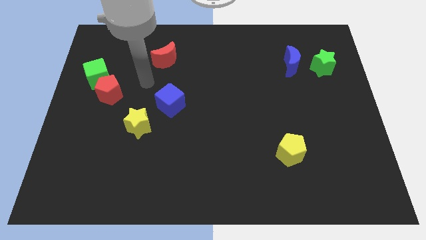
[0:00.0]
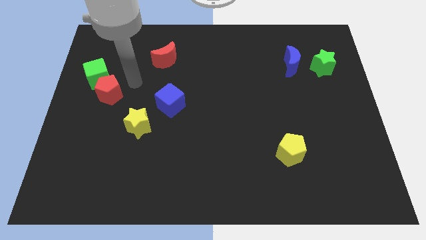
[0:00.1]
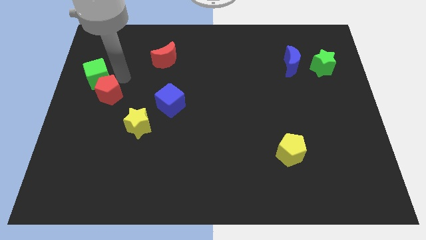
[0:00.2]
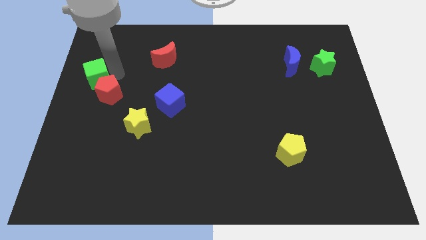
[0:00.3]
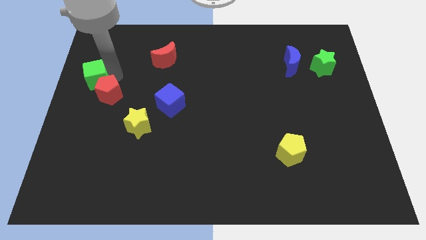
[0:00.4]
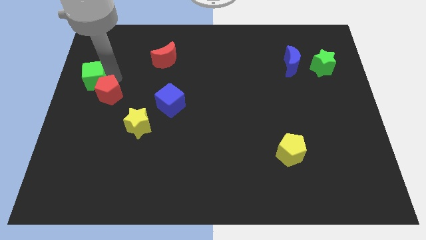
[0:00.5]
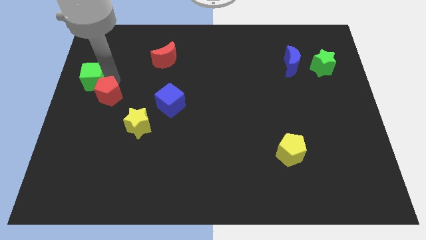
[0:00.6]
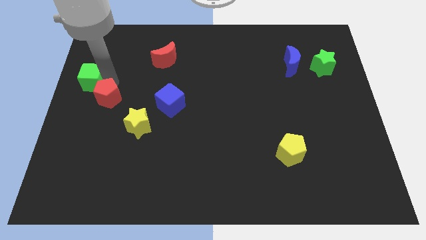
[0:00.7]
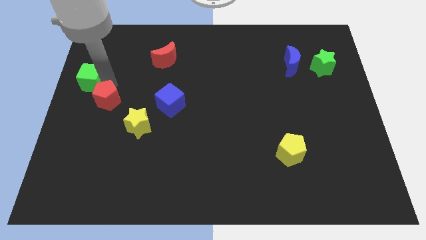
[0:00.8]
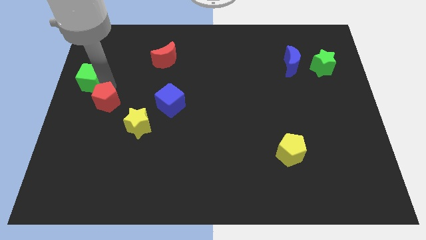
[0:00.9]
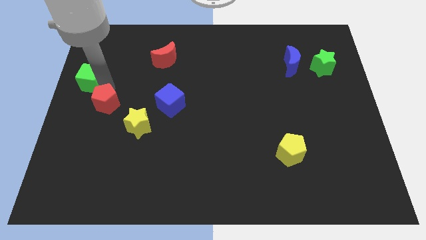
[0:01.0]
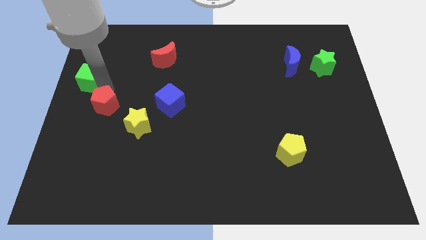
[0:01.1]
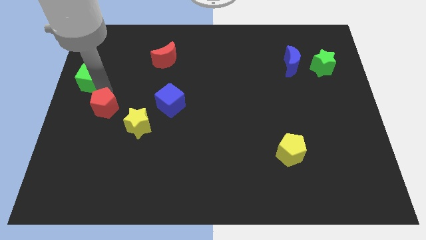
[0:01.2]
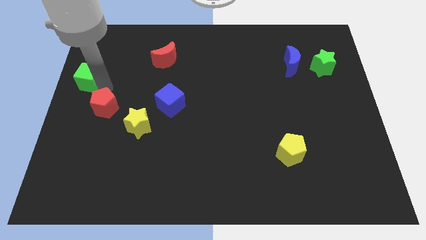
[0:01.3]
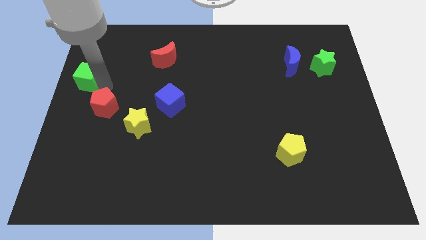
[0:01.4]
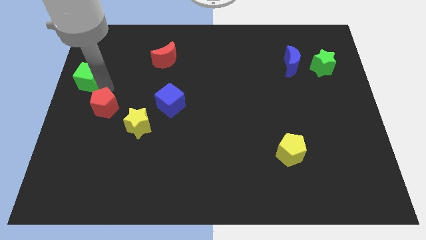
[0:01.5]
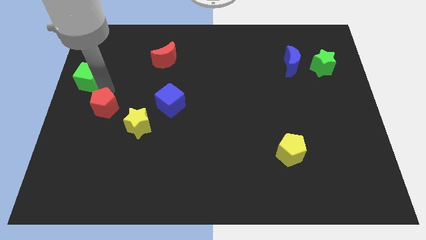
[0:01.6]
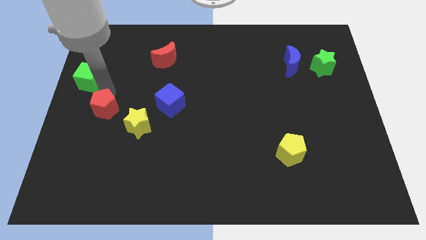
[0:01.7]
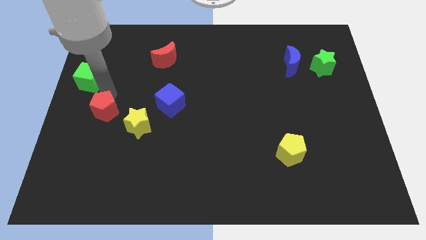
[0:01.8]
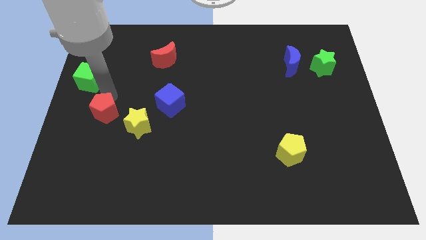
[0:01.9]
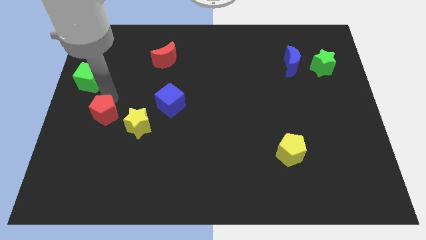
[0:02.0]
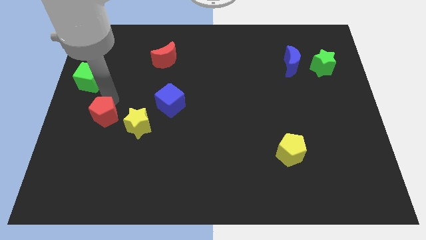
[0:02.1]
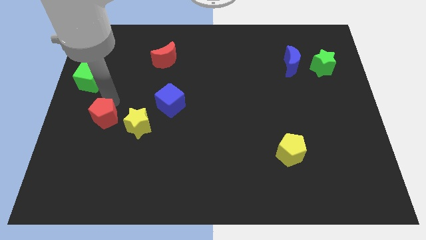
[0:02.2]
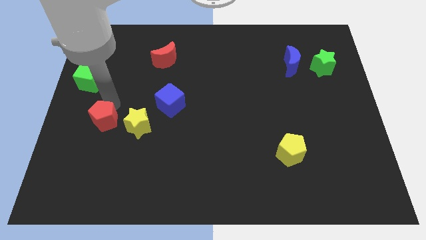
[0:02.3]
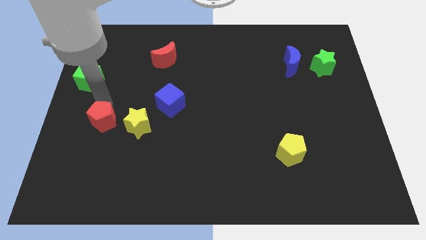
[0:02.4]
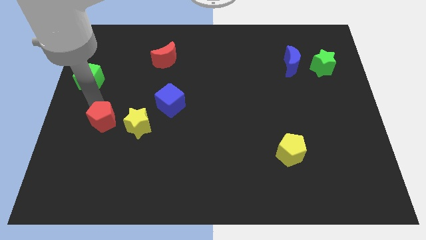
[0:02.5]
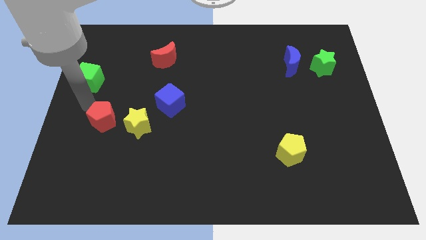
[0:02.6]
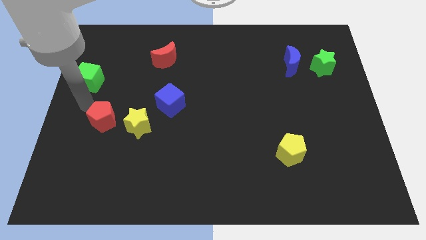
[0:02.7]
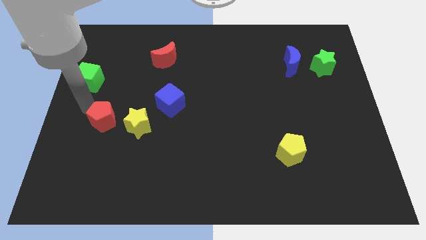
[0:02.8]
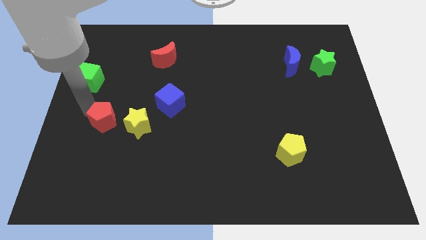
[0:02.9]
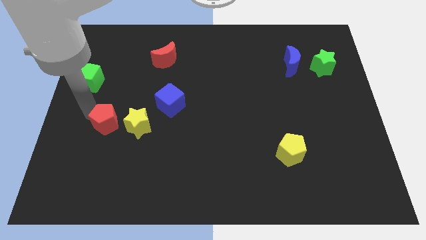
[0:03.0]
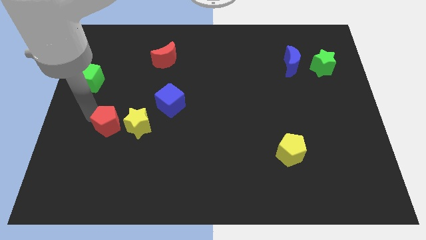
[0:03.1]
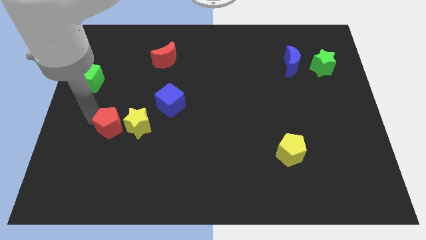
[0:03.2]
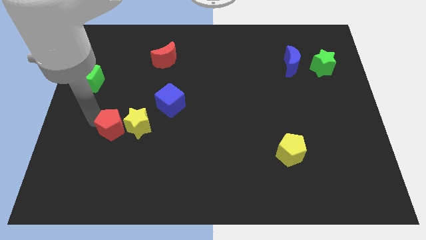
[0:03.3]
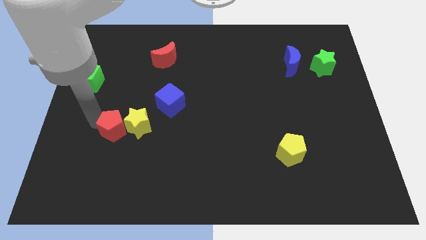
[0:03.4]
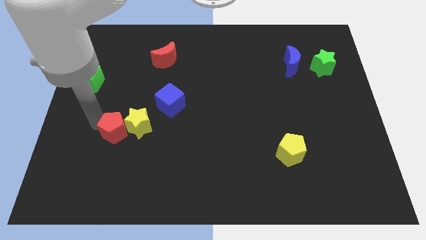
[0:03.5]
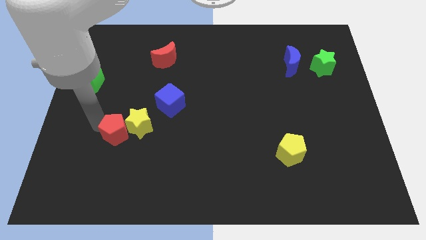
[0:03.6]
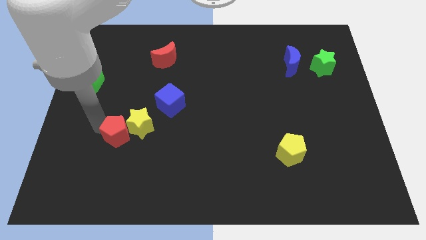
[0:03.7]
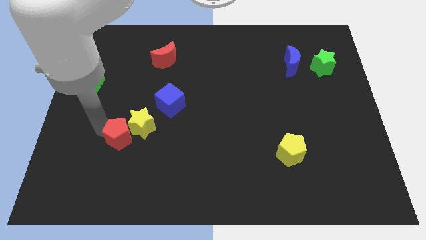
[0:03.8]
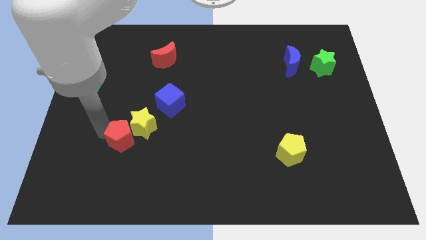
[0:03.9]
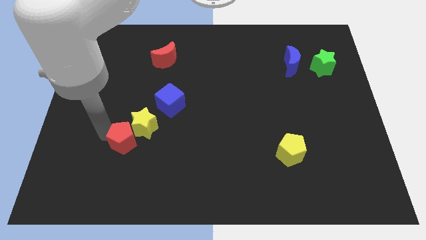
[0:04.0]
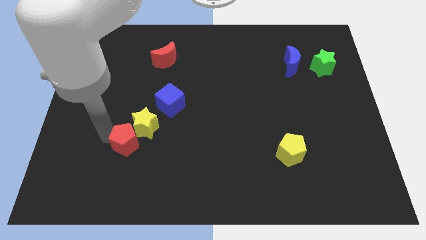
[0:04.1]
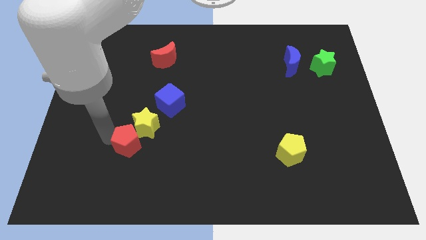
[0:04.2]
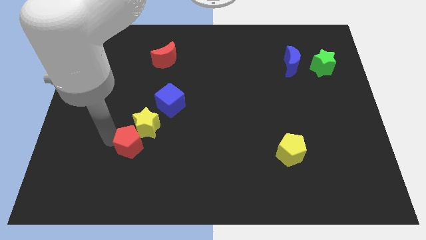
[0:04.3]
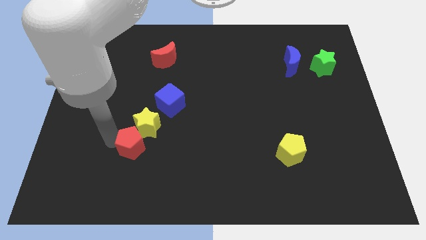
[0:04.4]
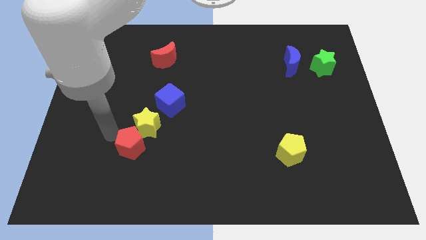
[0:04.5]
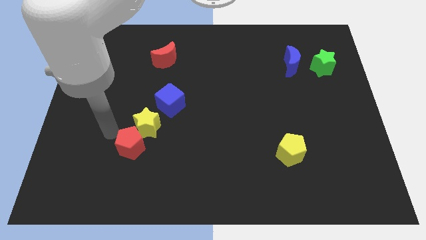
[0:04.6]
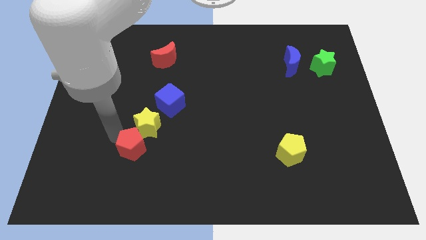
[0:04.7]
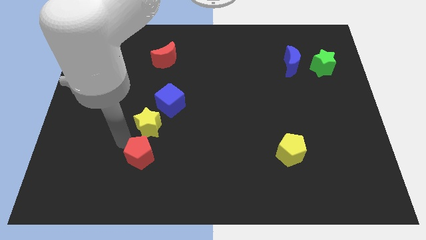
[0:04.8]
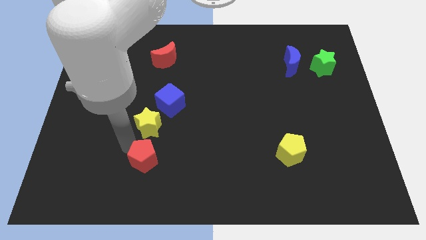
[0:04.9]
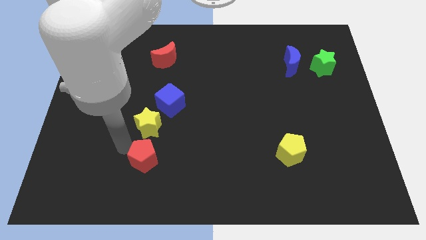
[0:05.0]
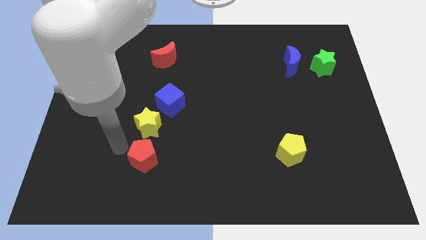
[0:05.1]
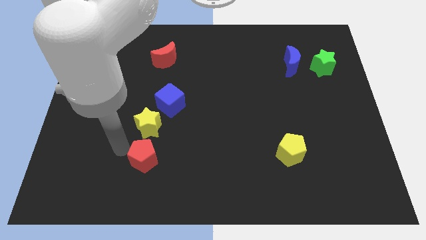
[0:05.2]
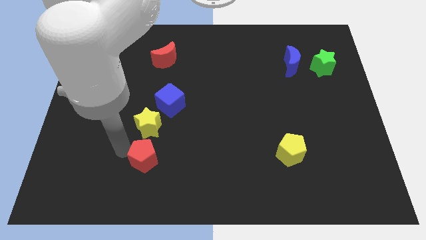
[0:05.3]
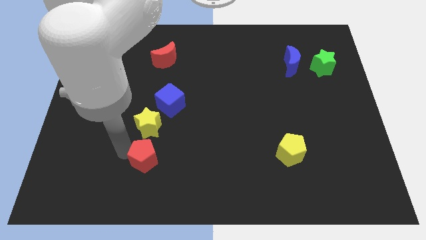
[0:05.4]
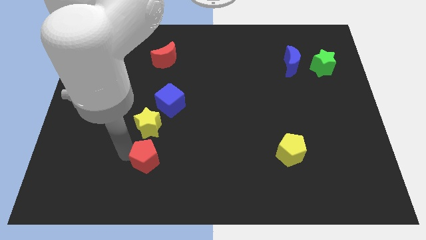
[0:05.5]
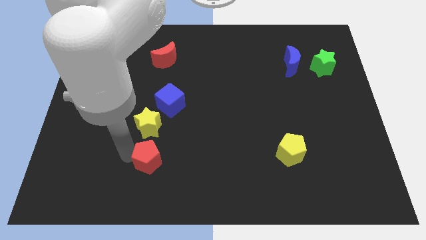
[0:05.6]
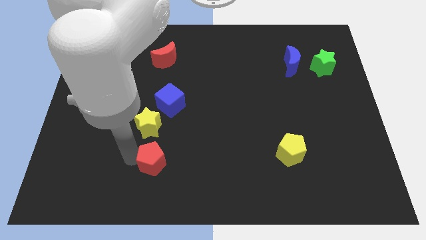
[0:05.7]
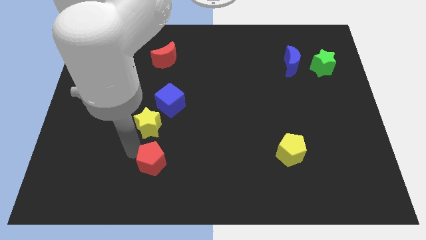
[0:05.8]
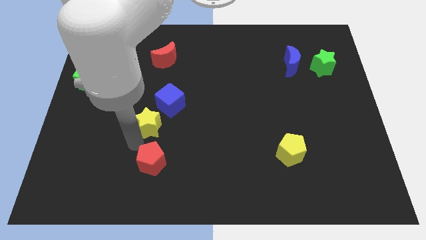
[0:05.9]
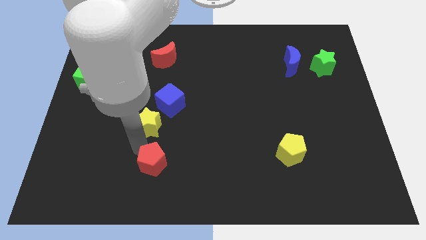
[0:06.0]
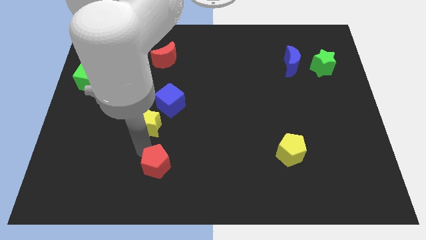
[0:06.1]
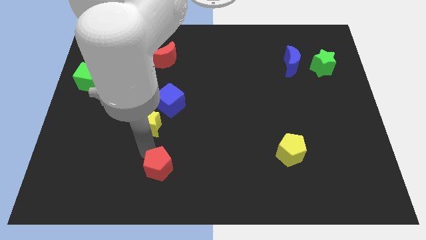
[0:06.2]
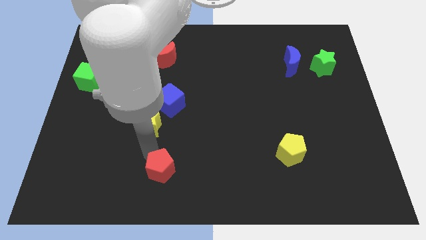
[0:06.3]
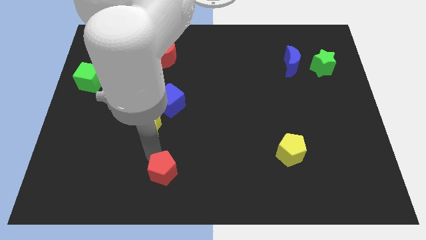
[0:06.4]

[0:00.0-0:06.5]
push the red pentagon to the bottom
